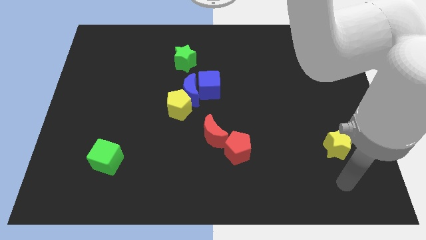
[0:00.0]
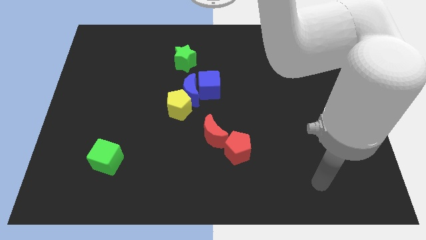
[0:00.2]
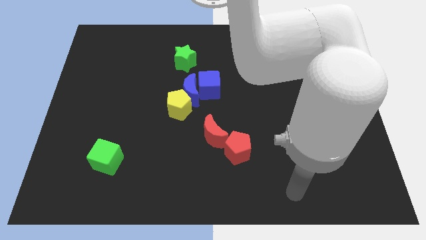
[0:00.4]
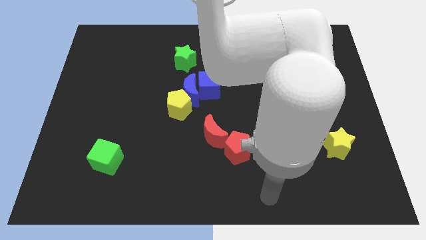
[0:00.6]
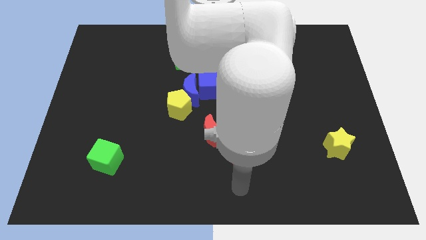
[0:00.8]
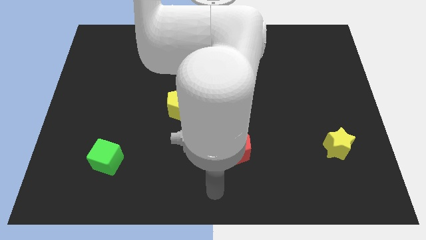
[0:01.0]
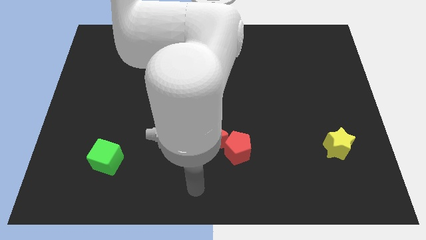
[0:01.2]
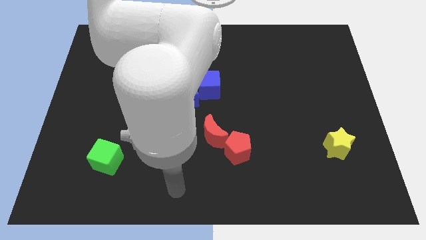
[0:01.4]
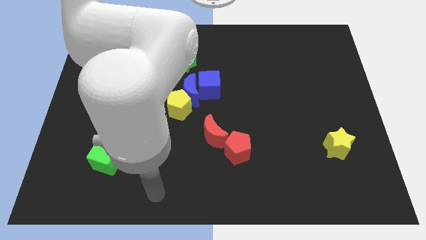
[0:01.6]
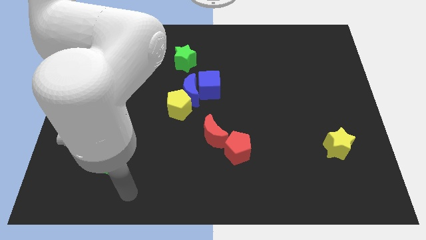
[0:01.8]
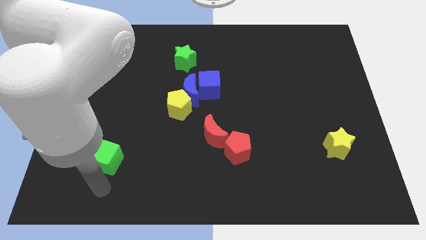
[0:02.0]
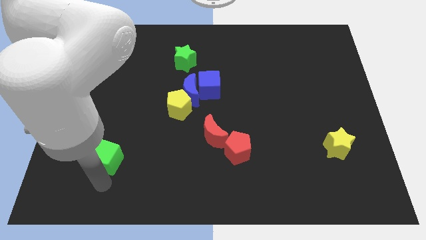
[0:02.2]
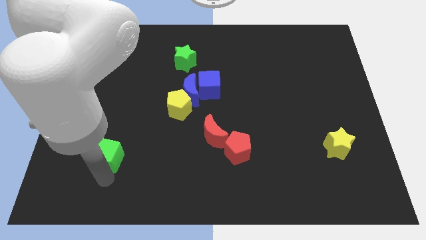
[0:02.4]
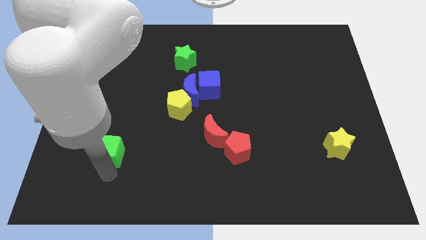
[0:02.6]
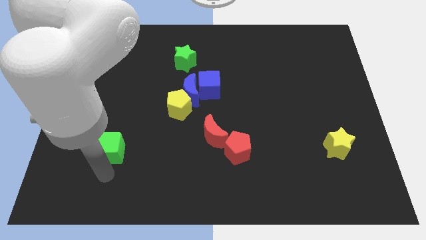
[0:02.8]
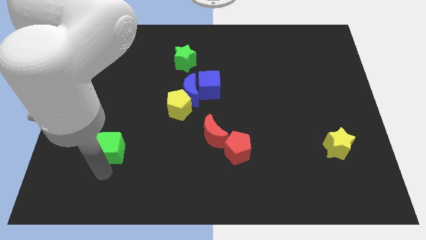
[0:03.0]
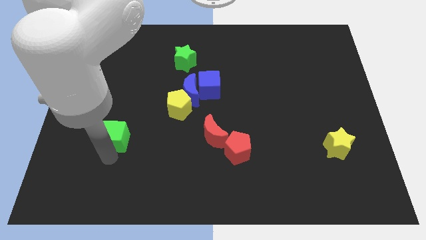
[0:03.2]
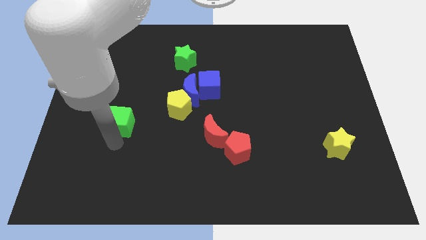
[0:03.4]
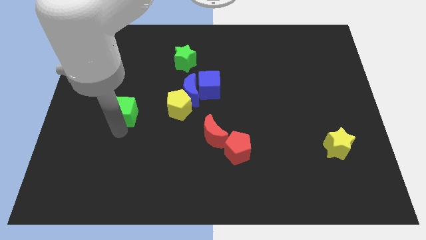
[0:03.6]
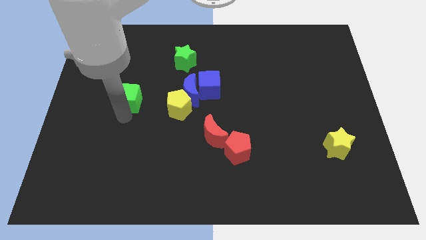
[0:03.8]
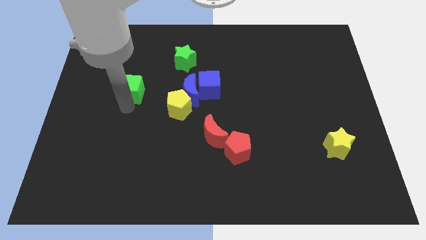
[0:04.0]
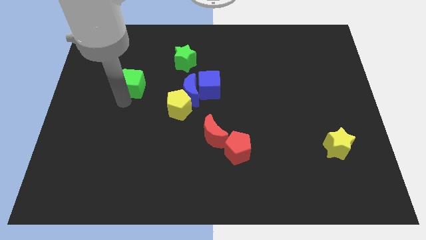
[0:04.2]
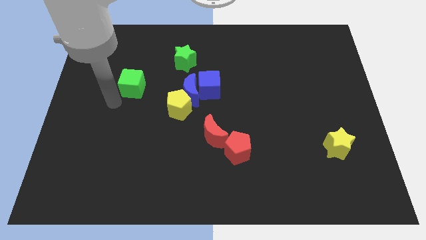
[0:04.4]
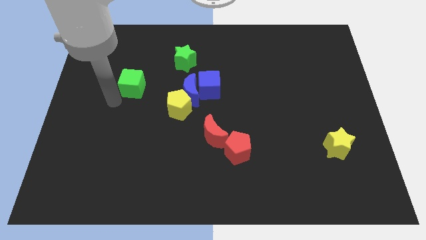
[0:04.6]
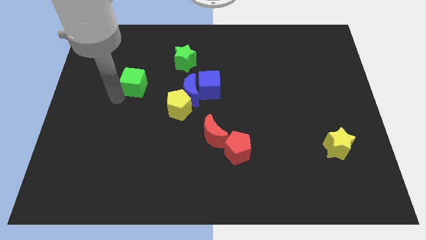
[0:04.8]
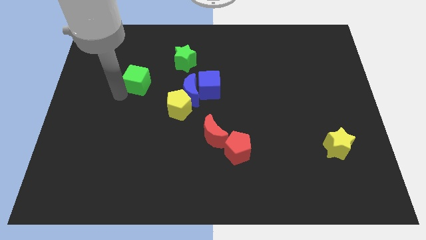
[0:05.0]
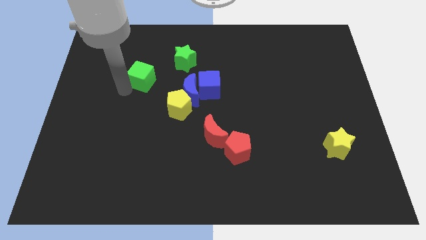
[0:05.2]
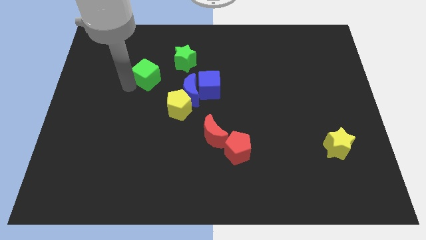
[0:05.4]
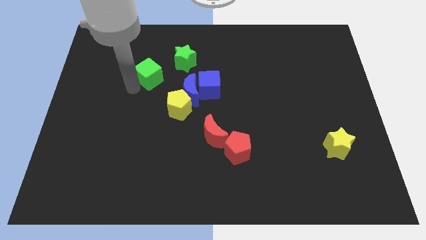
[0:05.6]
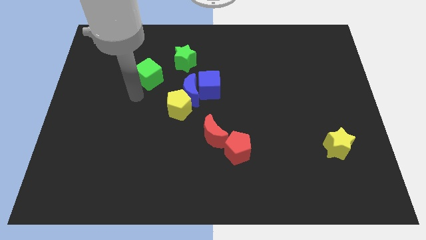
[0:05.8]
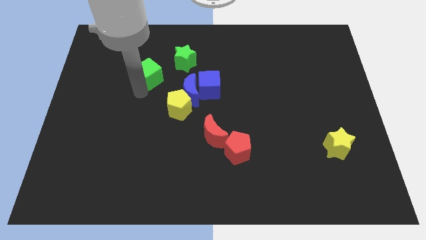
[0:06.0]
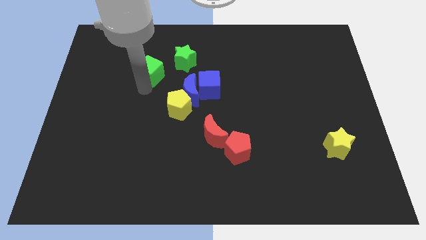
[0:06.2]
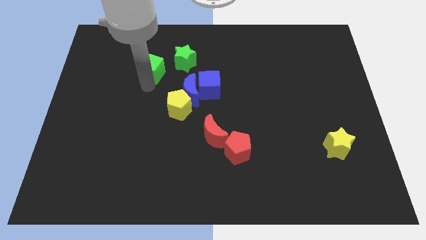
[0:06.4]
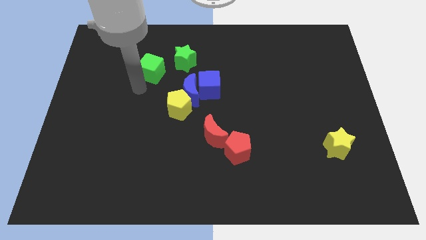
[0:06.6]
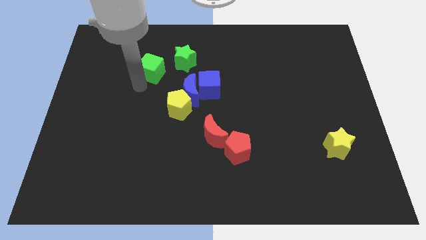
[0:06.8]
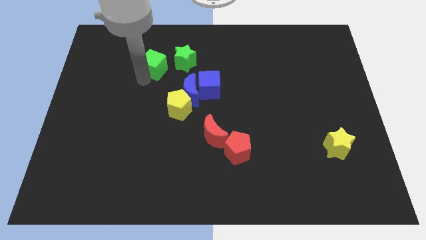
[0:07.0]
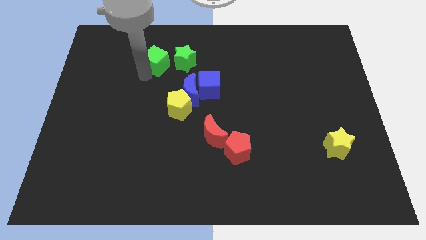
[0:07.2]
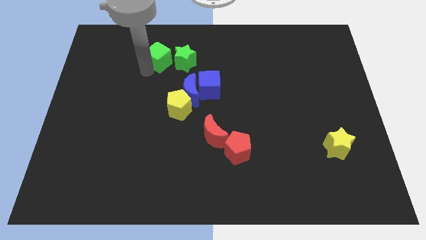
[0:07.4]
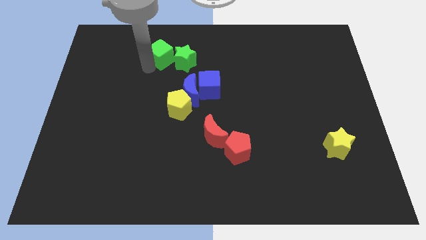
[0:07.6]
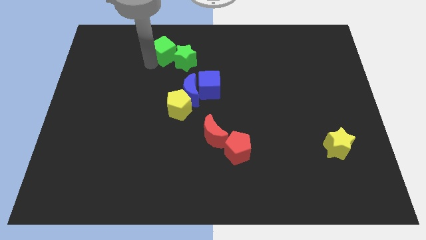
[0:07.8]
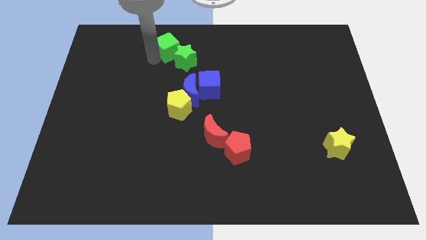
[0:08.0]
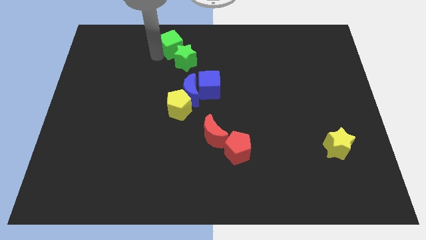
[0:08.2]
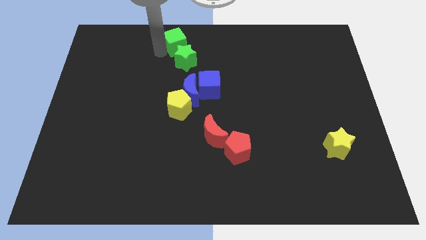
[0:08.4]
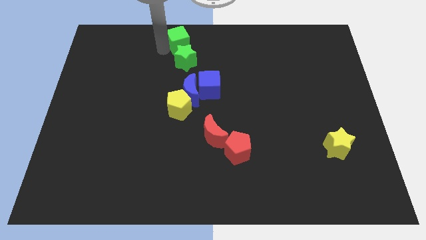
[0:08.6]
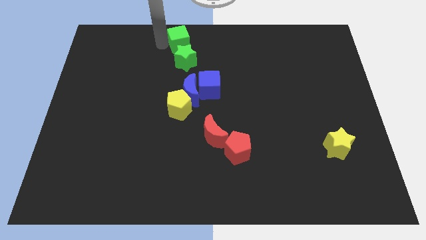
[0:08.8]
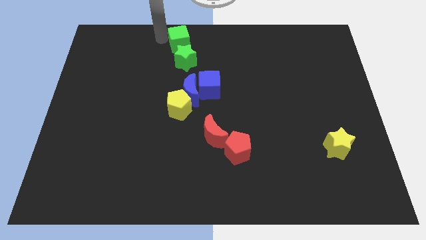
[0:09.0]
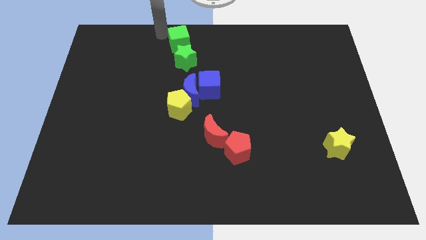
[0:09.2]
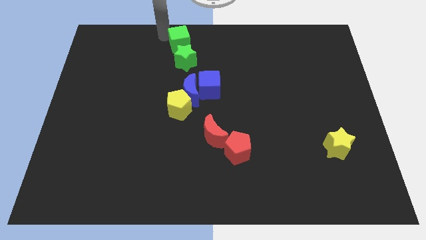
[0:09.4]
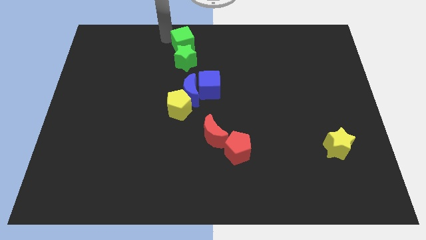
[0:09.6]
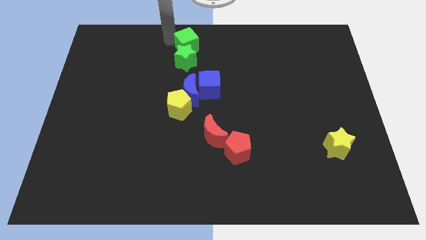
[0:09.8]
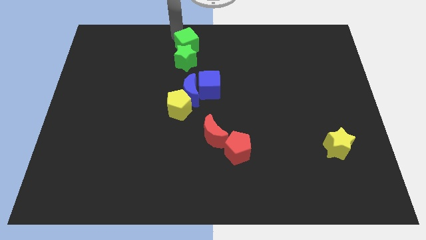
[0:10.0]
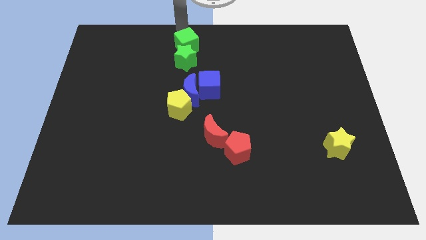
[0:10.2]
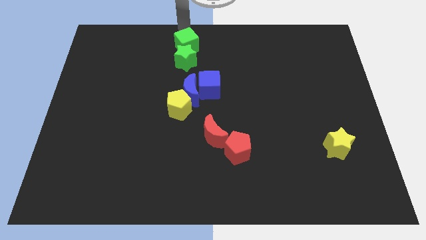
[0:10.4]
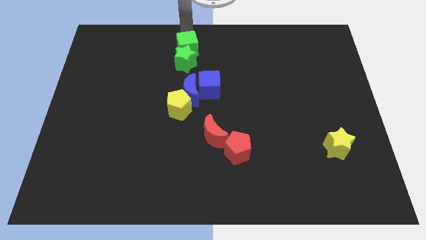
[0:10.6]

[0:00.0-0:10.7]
push the green cube above the blue moon

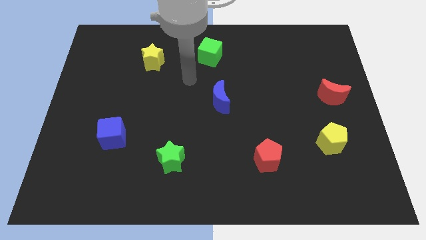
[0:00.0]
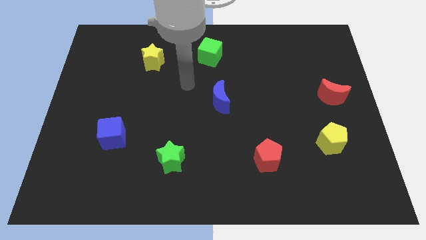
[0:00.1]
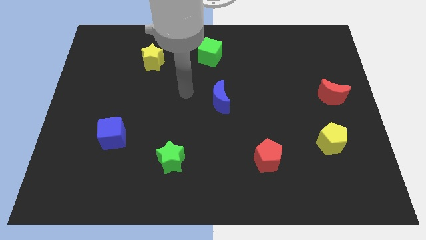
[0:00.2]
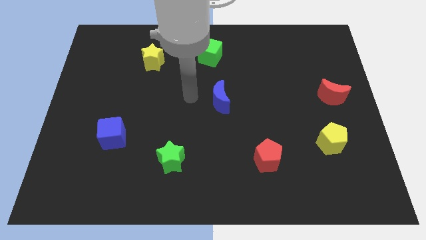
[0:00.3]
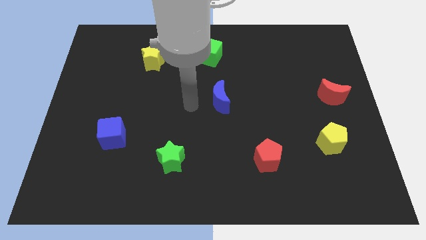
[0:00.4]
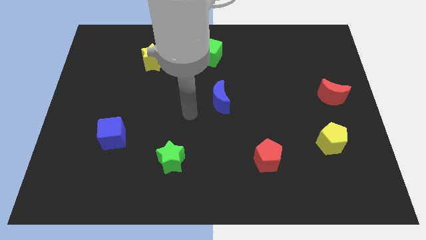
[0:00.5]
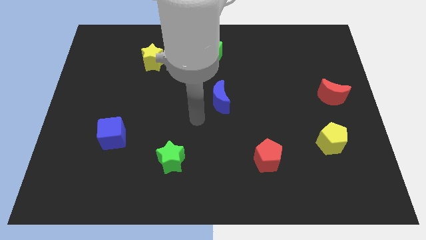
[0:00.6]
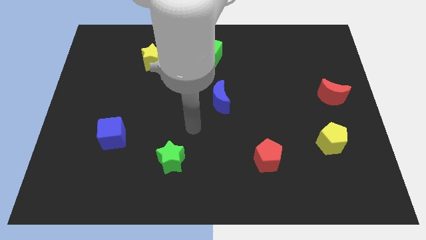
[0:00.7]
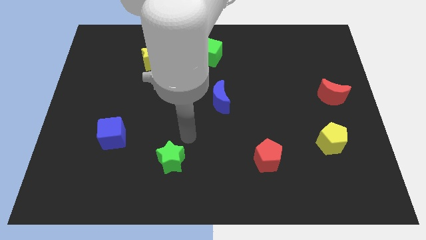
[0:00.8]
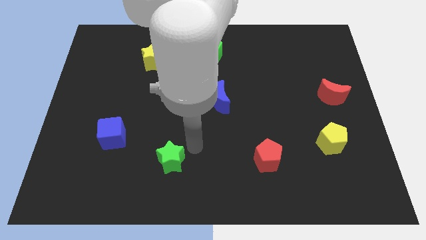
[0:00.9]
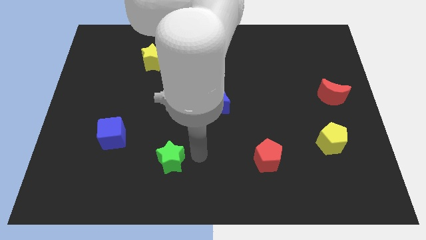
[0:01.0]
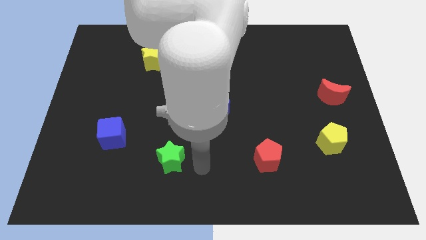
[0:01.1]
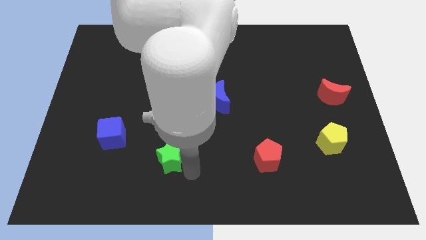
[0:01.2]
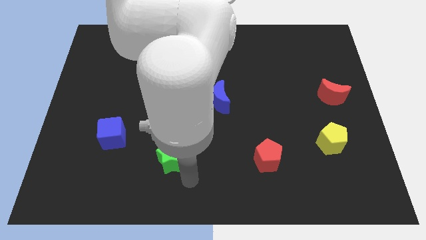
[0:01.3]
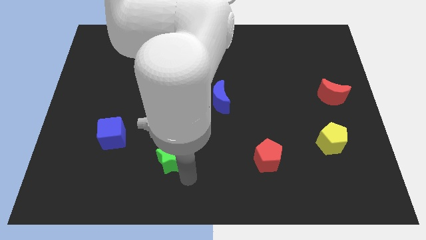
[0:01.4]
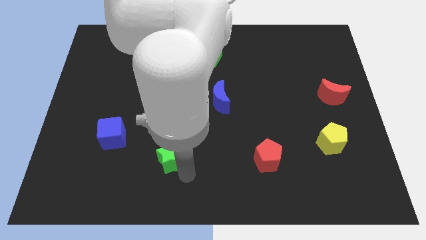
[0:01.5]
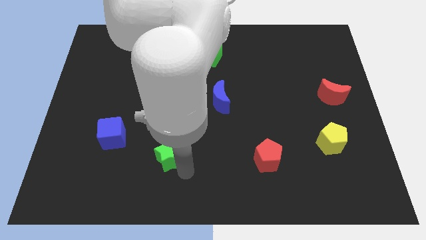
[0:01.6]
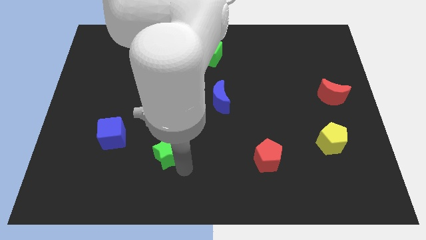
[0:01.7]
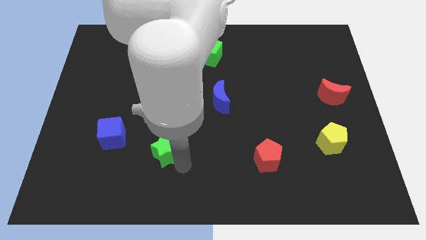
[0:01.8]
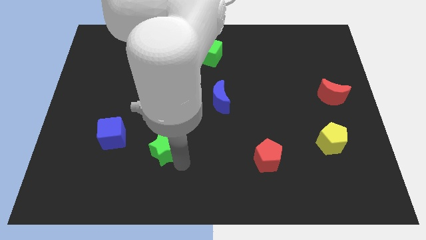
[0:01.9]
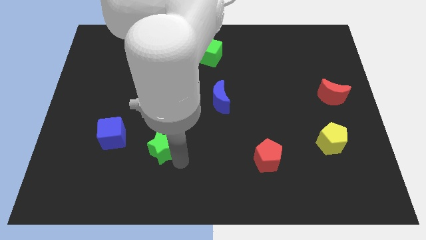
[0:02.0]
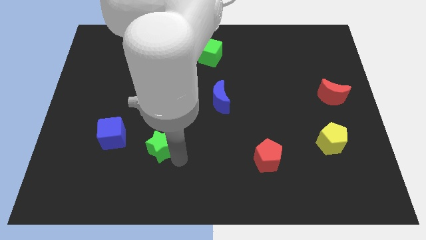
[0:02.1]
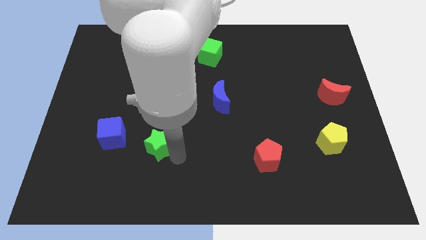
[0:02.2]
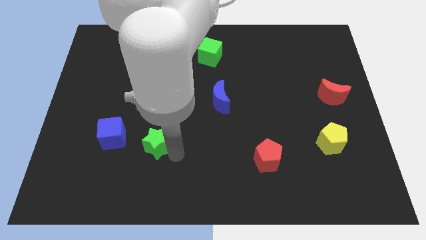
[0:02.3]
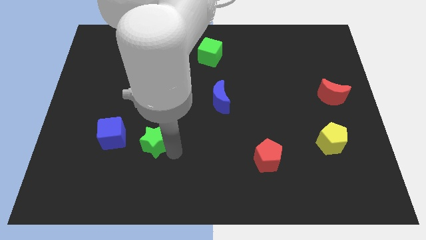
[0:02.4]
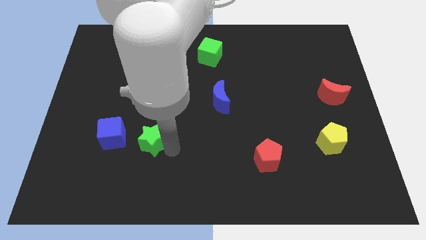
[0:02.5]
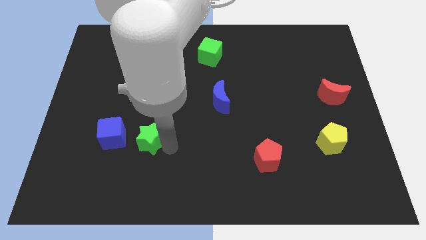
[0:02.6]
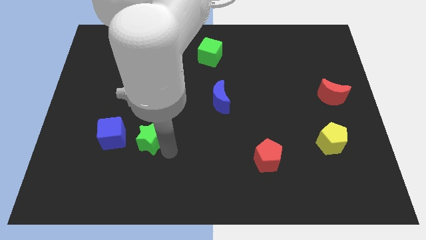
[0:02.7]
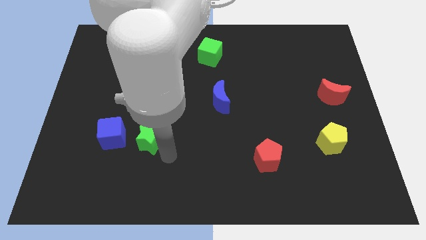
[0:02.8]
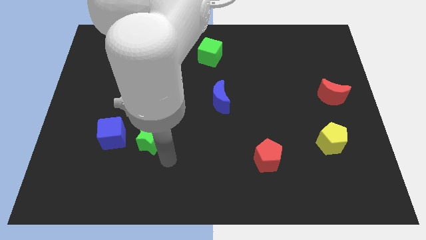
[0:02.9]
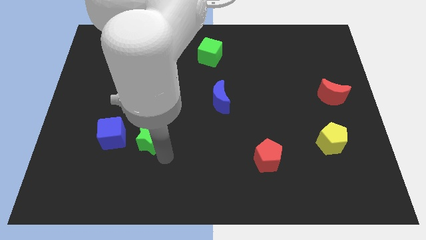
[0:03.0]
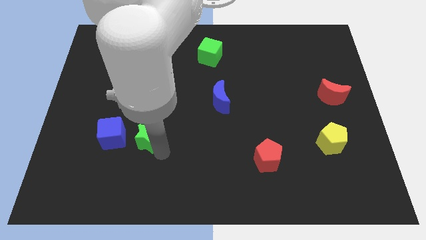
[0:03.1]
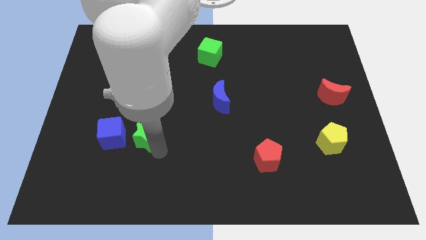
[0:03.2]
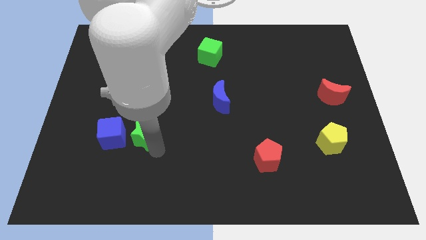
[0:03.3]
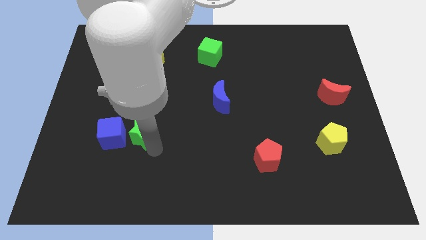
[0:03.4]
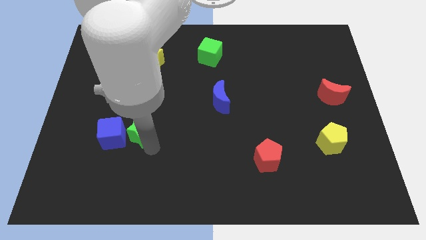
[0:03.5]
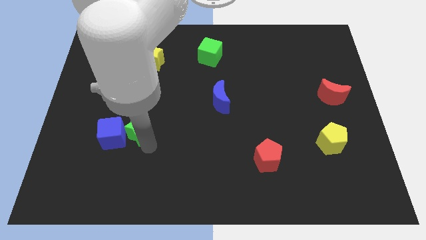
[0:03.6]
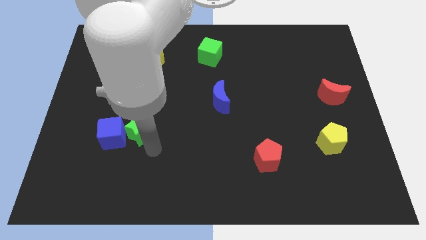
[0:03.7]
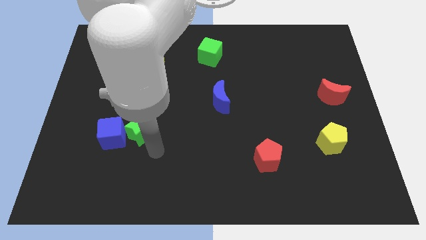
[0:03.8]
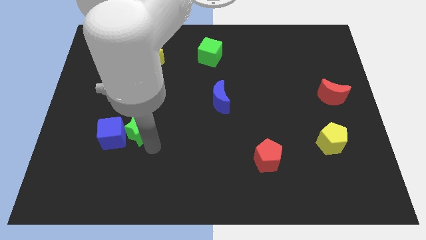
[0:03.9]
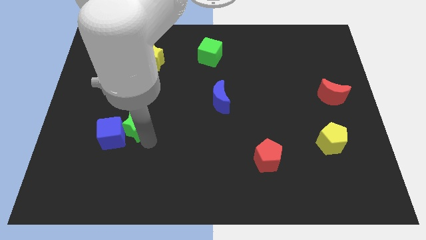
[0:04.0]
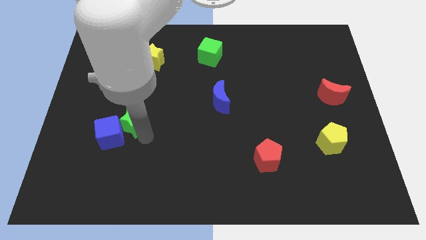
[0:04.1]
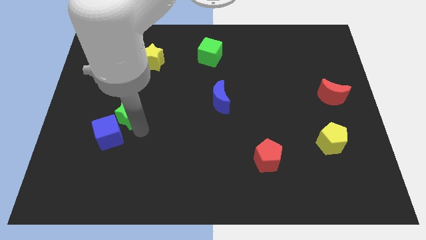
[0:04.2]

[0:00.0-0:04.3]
move the green star to the top side of the blue cube
